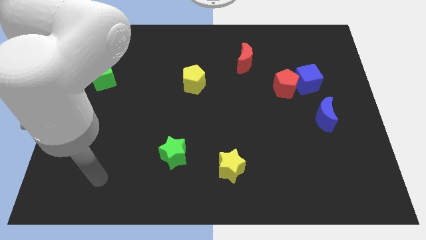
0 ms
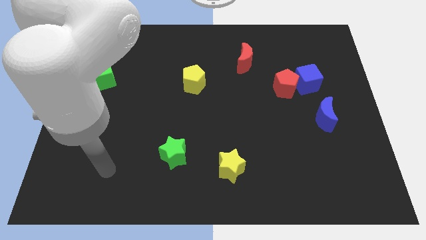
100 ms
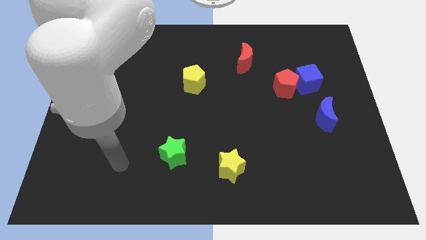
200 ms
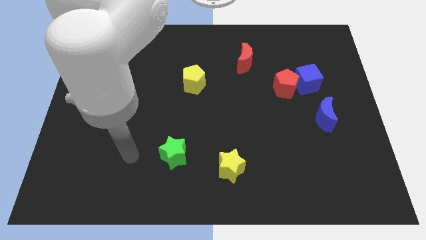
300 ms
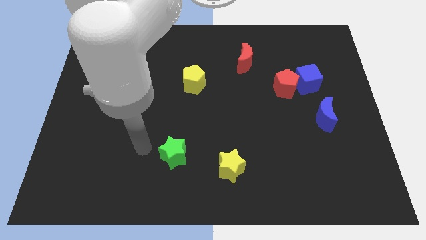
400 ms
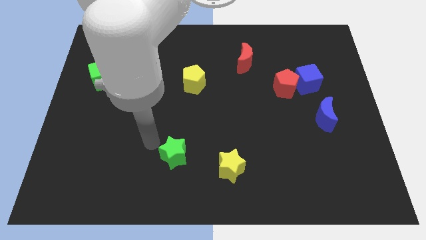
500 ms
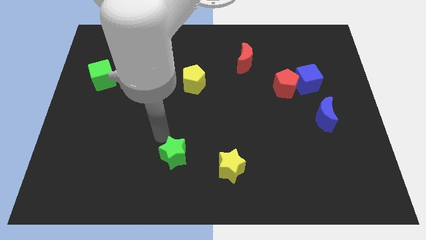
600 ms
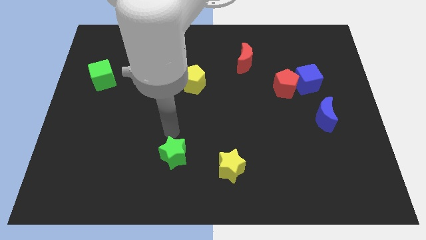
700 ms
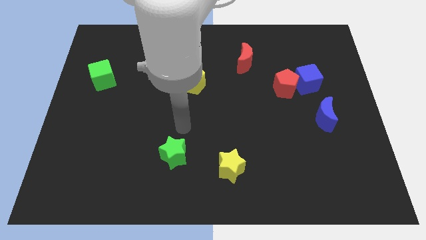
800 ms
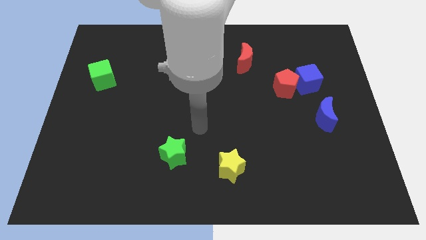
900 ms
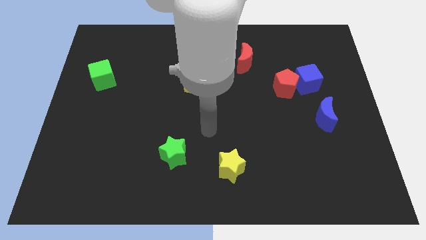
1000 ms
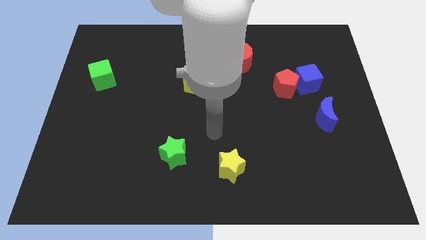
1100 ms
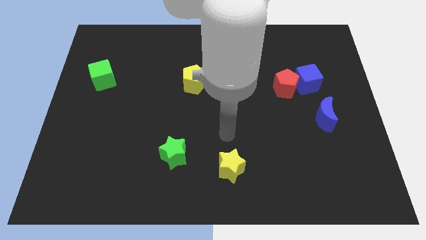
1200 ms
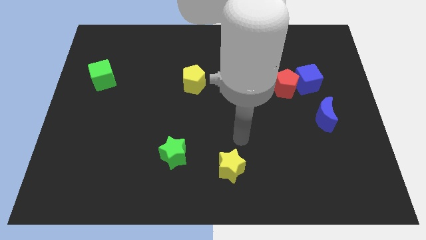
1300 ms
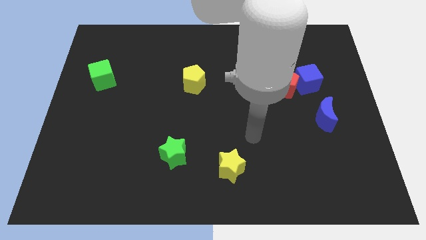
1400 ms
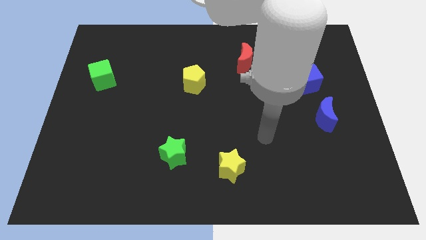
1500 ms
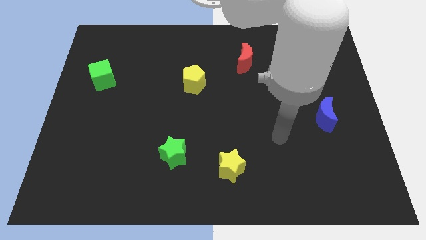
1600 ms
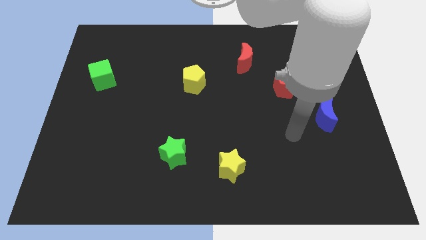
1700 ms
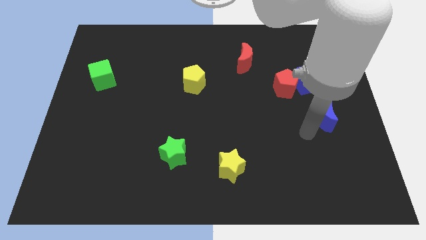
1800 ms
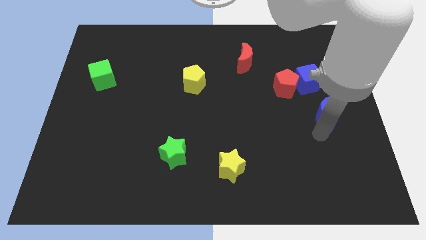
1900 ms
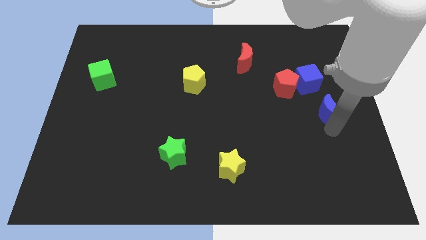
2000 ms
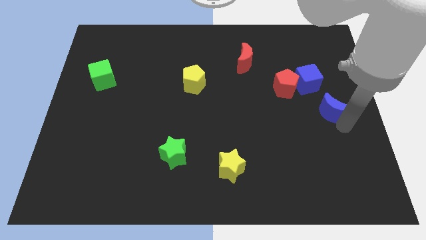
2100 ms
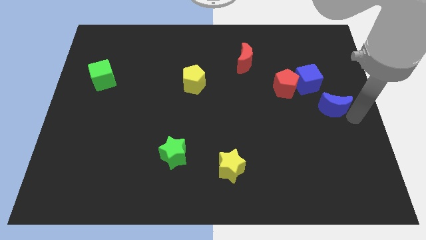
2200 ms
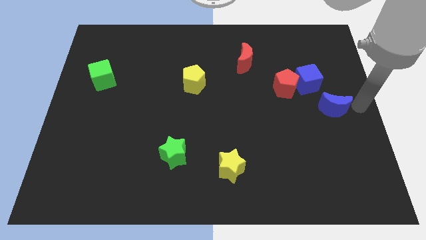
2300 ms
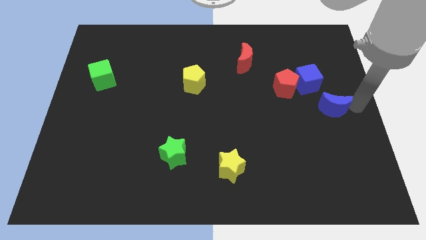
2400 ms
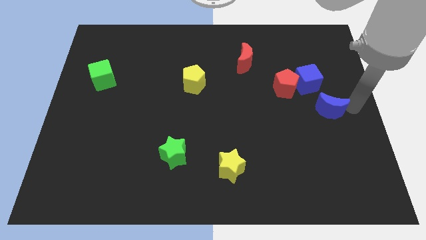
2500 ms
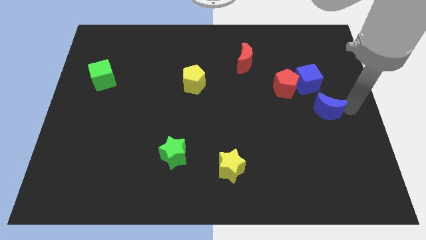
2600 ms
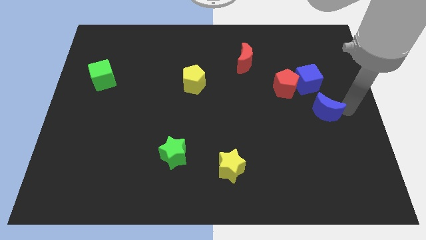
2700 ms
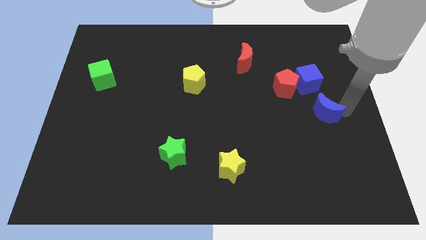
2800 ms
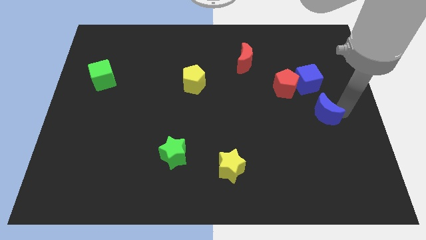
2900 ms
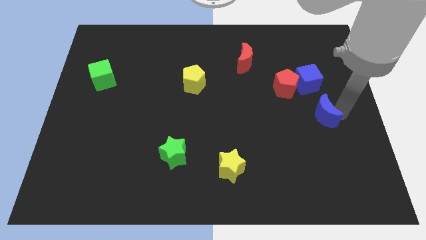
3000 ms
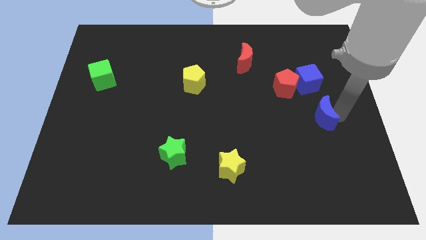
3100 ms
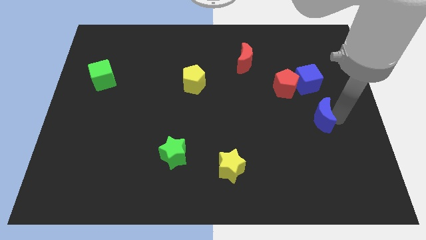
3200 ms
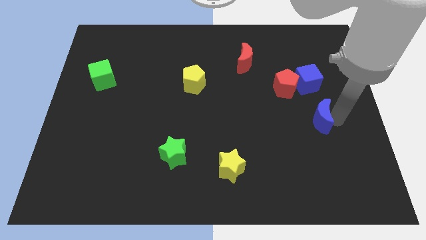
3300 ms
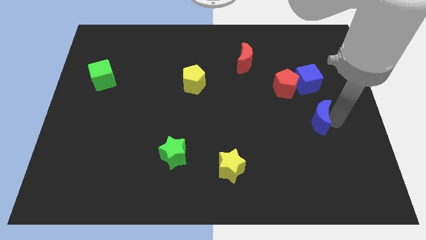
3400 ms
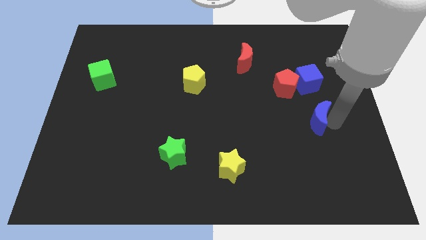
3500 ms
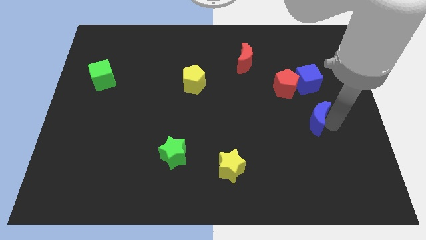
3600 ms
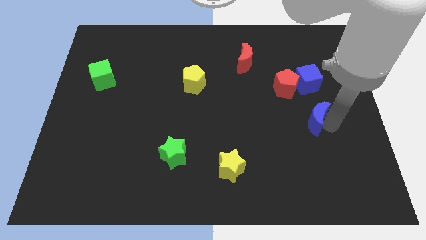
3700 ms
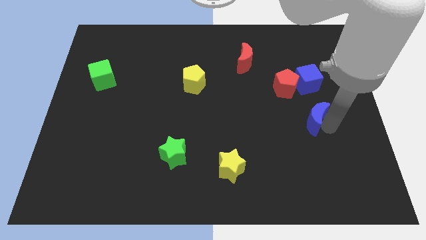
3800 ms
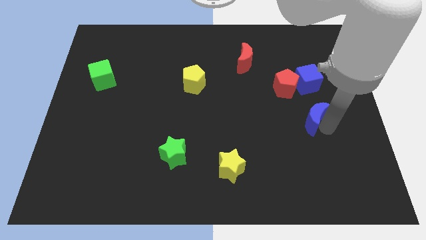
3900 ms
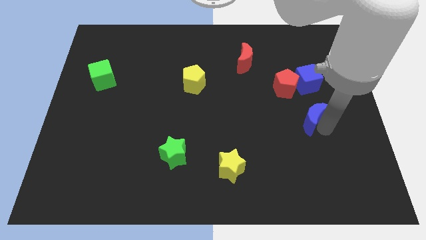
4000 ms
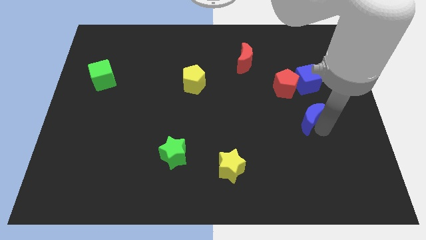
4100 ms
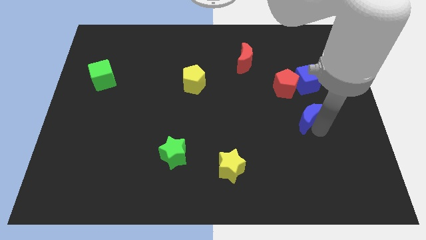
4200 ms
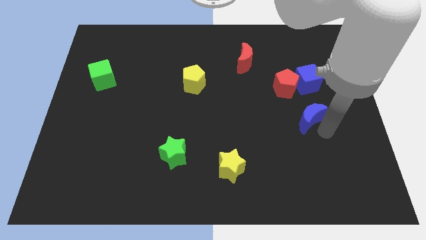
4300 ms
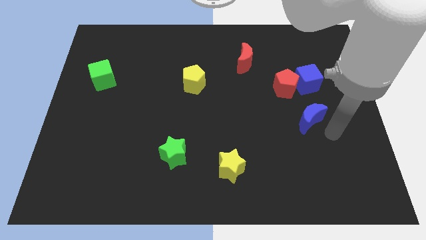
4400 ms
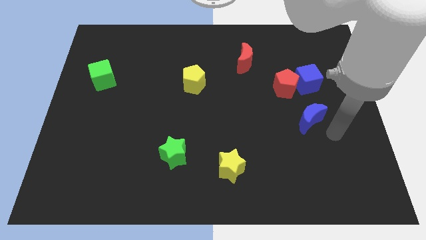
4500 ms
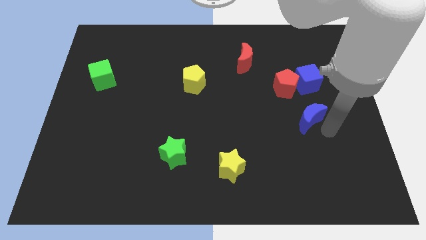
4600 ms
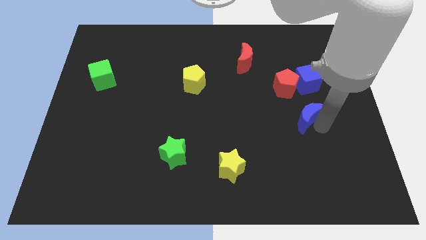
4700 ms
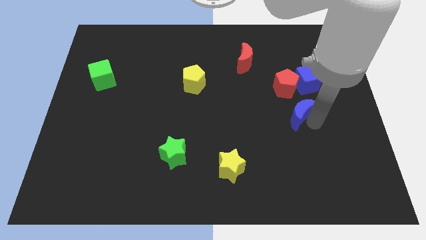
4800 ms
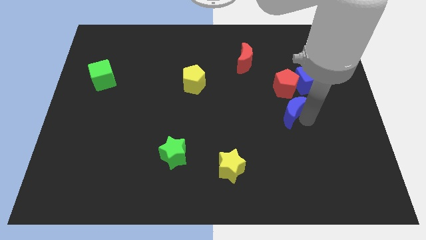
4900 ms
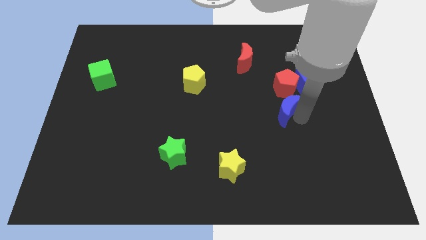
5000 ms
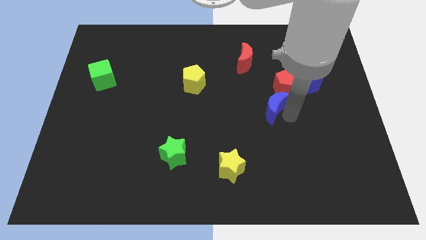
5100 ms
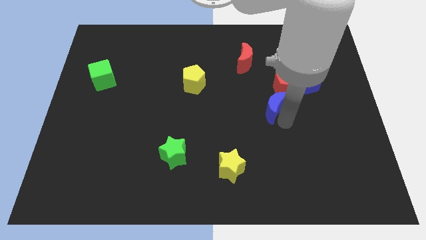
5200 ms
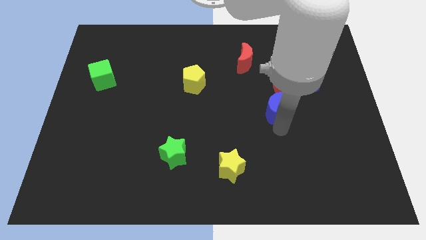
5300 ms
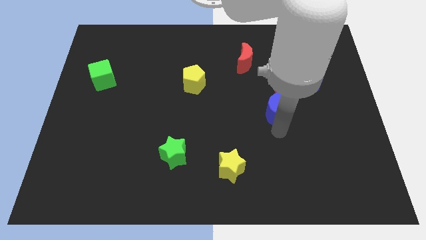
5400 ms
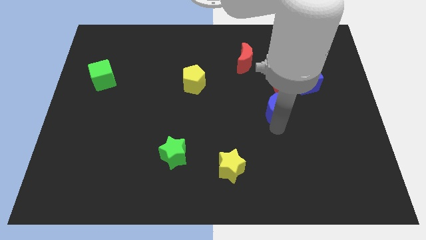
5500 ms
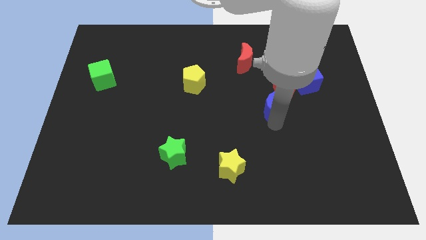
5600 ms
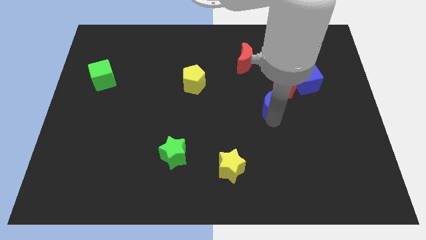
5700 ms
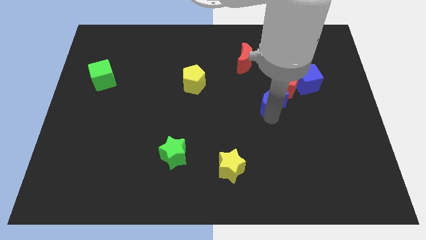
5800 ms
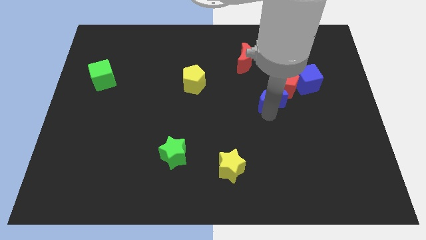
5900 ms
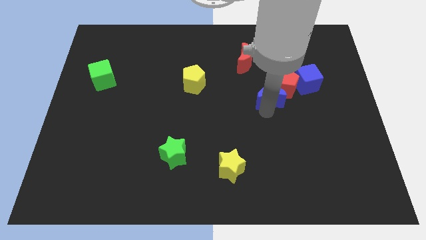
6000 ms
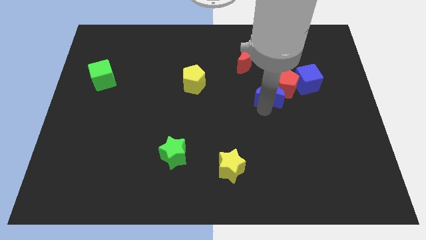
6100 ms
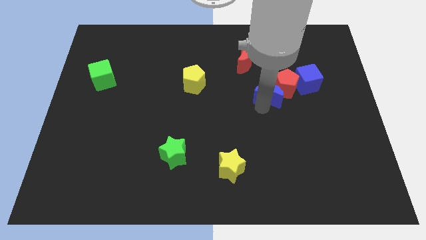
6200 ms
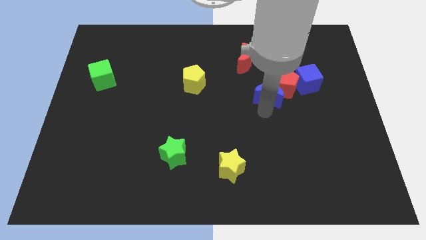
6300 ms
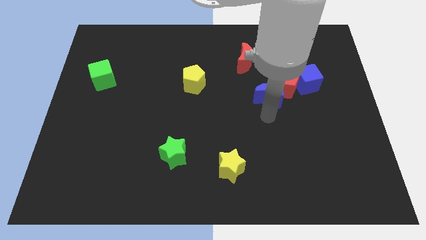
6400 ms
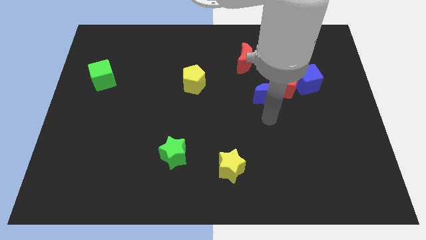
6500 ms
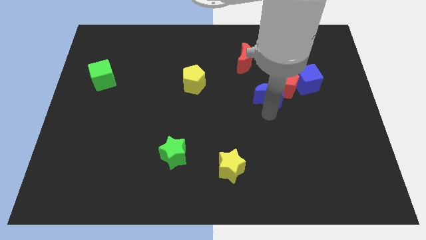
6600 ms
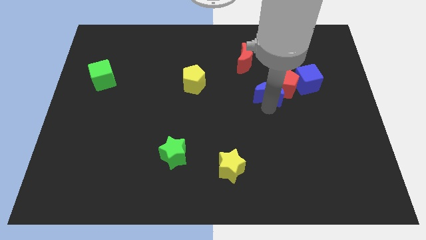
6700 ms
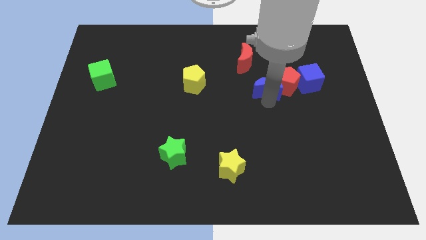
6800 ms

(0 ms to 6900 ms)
slide the blue moon to the bottom right of the red moon
